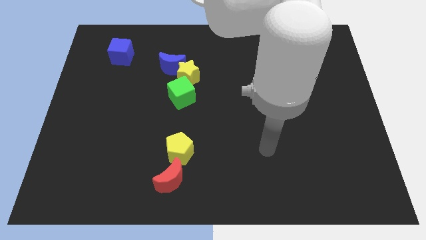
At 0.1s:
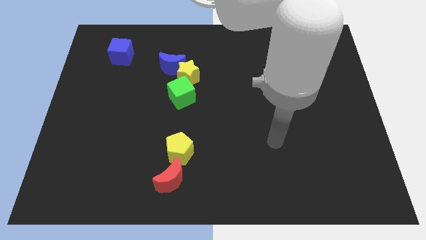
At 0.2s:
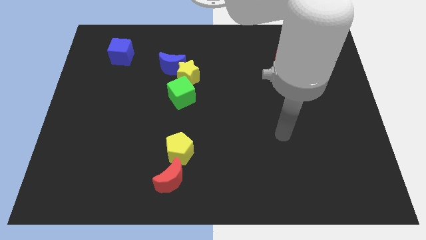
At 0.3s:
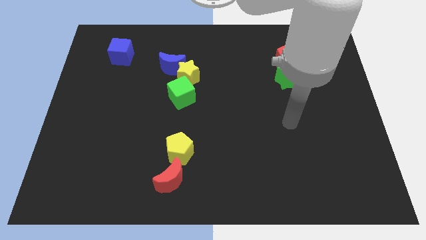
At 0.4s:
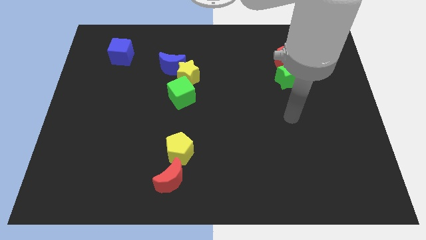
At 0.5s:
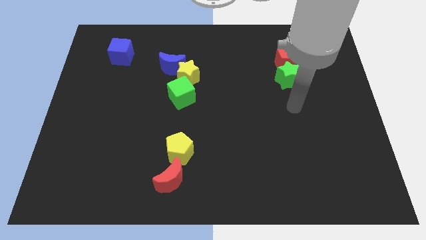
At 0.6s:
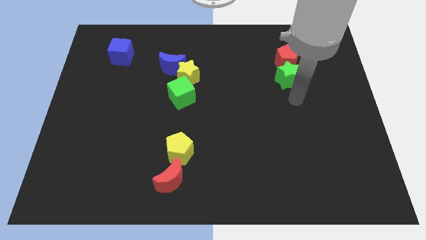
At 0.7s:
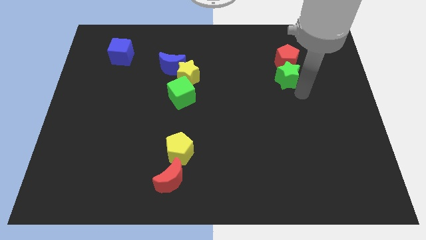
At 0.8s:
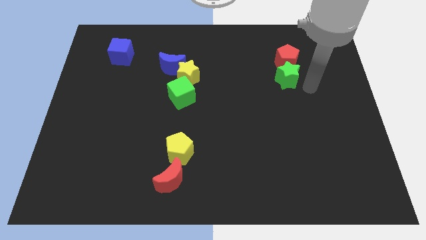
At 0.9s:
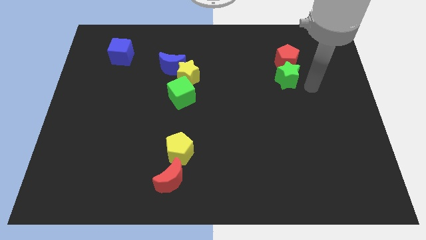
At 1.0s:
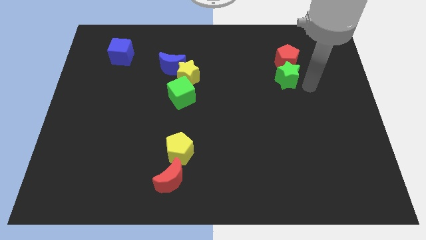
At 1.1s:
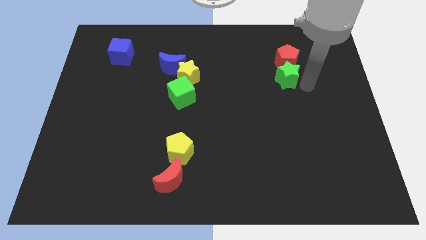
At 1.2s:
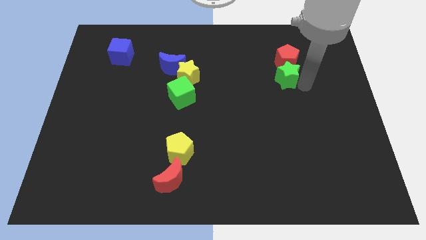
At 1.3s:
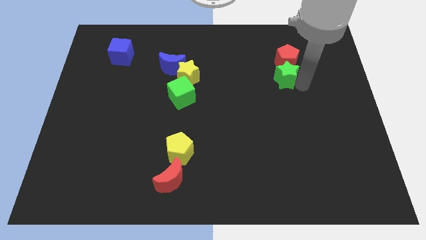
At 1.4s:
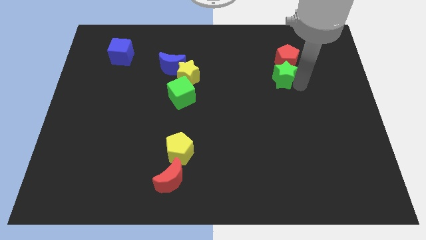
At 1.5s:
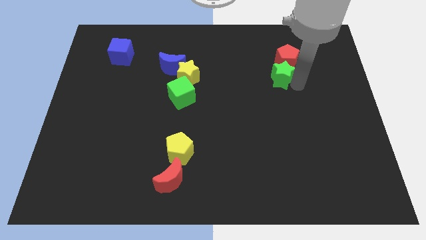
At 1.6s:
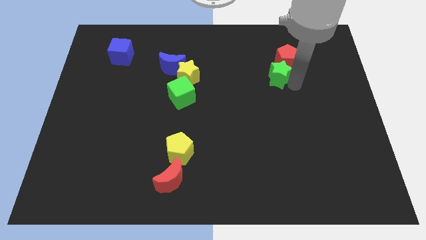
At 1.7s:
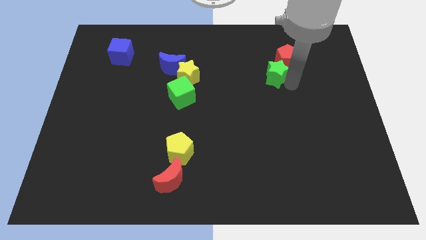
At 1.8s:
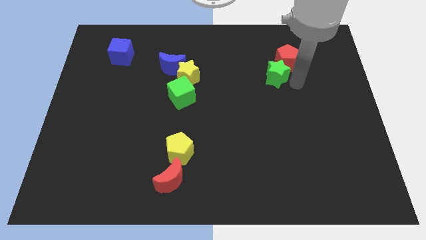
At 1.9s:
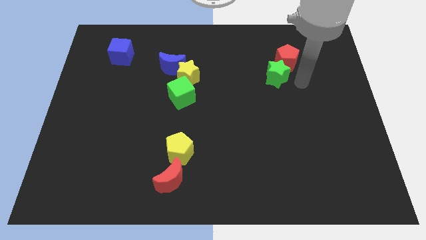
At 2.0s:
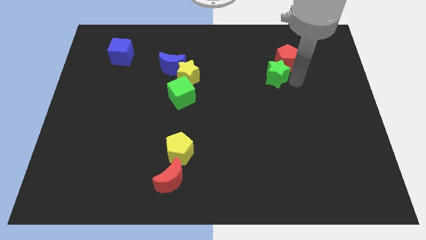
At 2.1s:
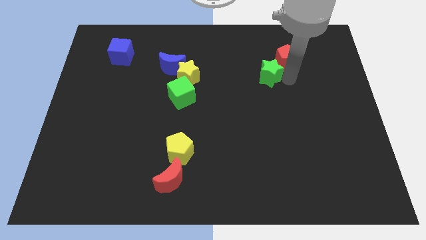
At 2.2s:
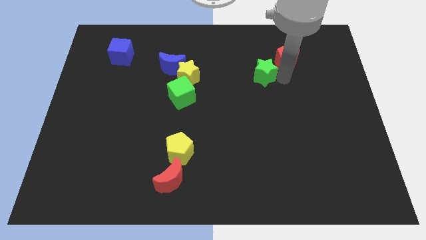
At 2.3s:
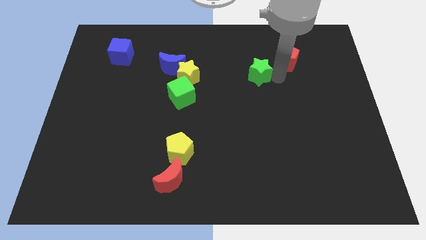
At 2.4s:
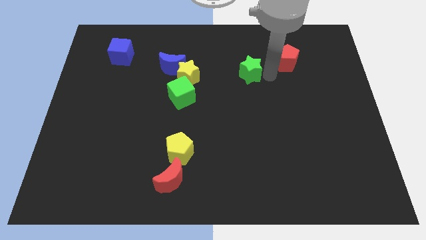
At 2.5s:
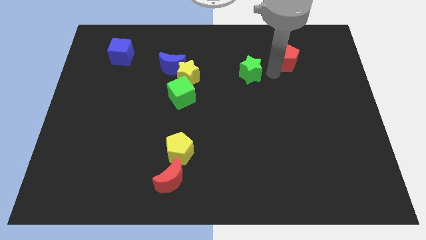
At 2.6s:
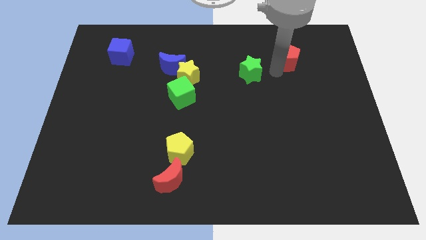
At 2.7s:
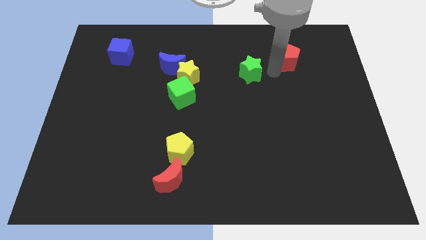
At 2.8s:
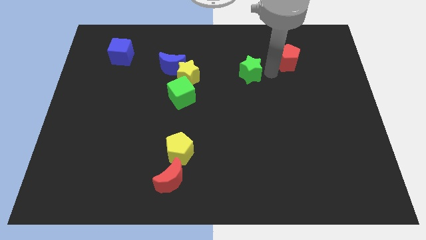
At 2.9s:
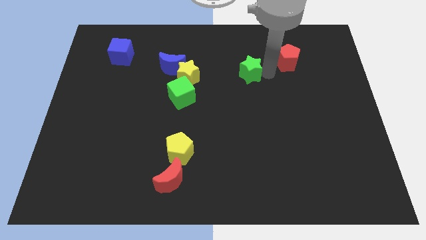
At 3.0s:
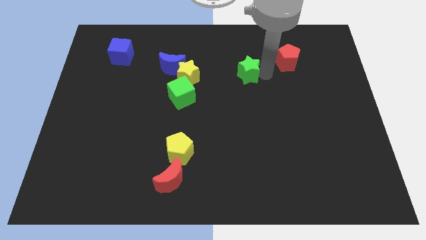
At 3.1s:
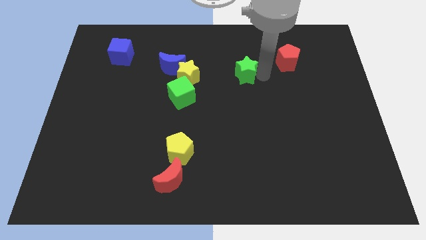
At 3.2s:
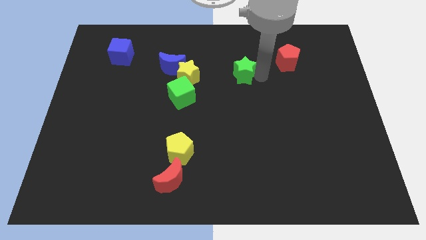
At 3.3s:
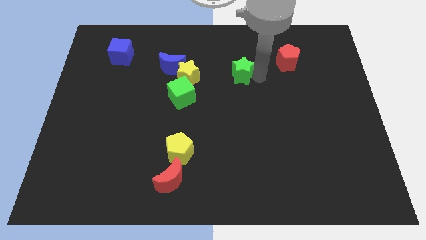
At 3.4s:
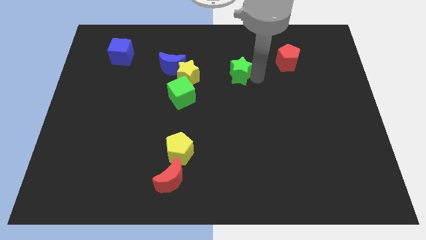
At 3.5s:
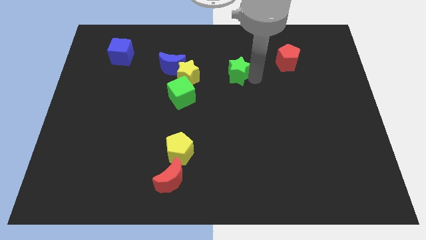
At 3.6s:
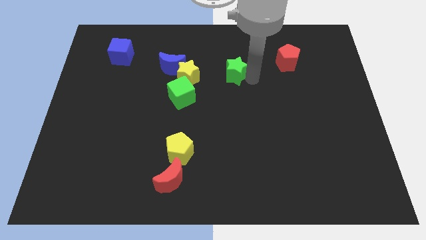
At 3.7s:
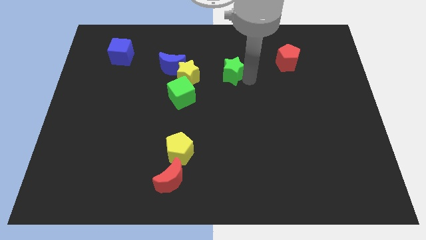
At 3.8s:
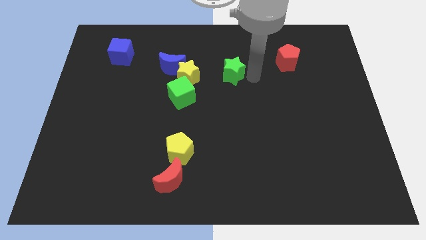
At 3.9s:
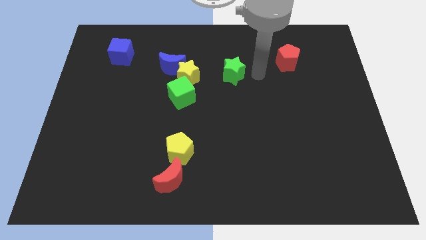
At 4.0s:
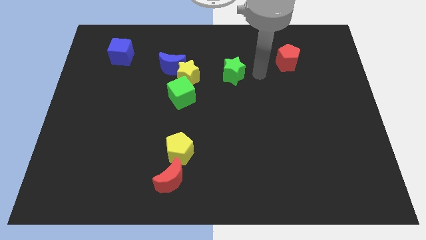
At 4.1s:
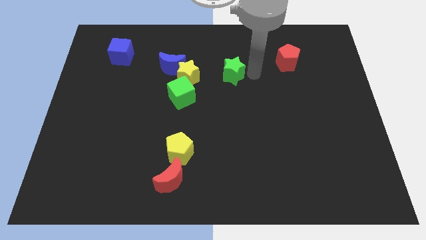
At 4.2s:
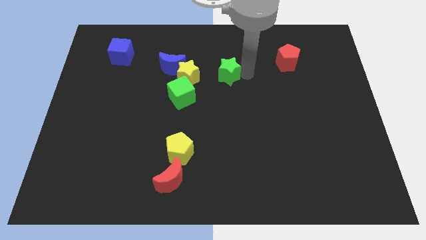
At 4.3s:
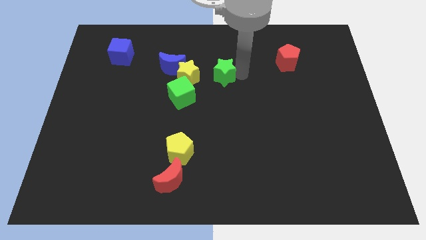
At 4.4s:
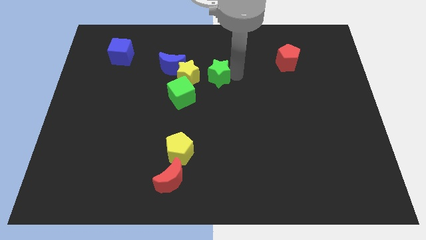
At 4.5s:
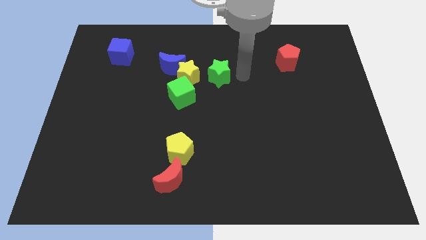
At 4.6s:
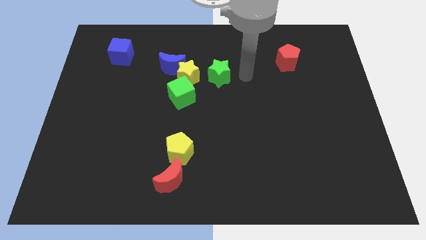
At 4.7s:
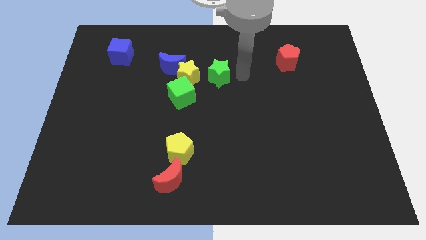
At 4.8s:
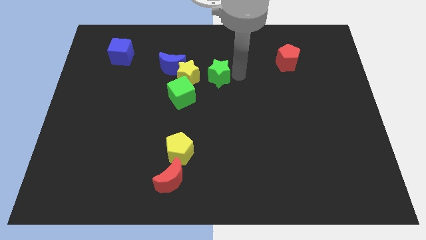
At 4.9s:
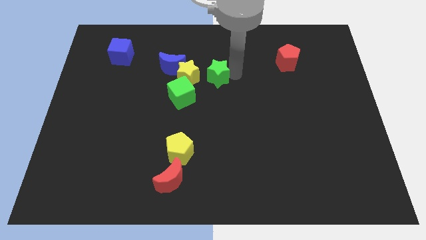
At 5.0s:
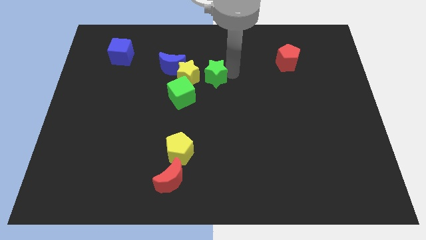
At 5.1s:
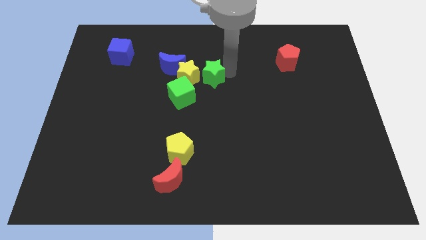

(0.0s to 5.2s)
slide the green star to the yellow star

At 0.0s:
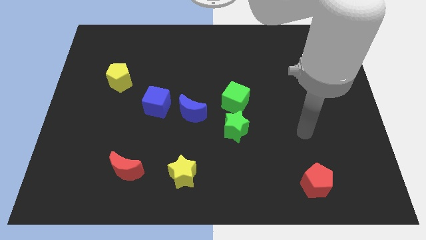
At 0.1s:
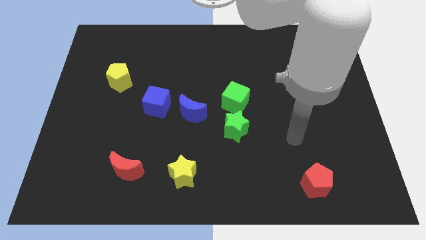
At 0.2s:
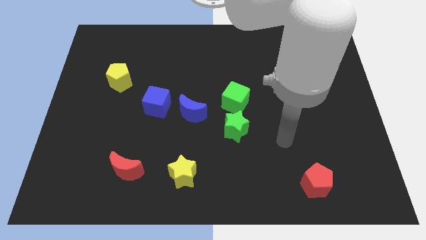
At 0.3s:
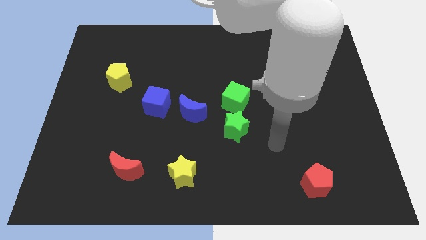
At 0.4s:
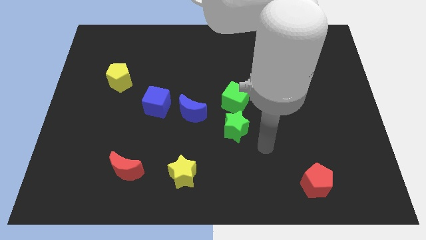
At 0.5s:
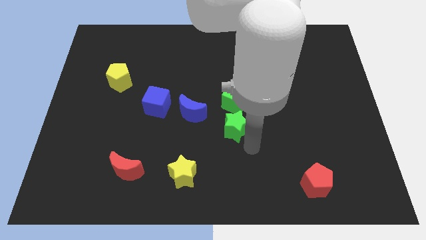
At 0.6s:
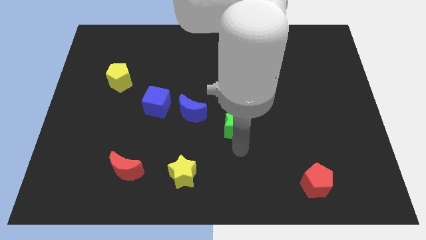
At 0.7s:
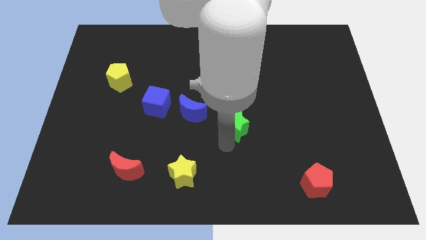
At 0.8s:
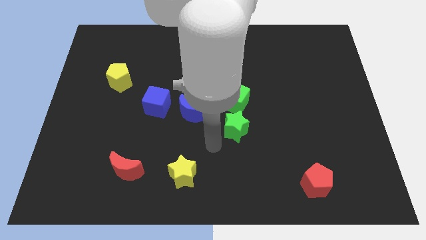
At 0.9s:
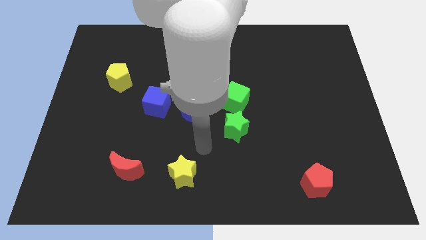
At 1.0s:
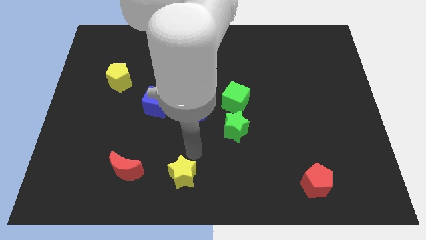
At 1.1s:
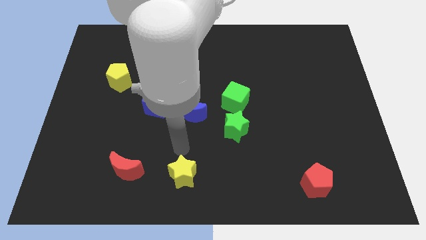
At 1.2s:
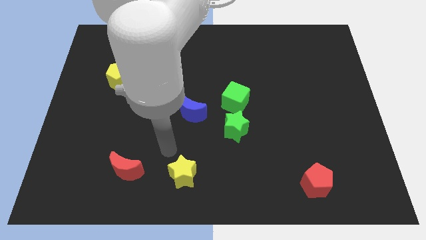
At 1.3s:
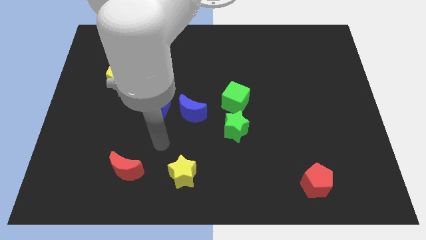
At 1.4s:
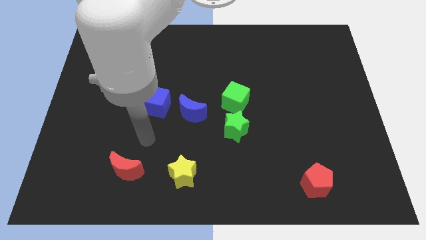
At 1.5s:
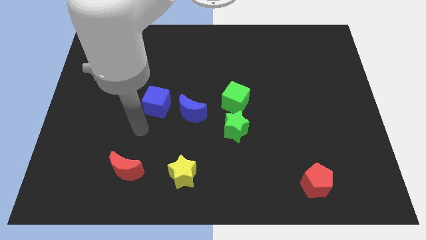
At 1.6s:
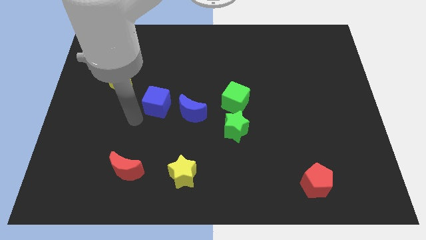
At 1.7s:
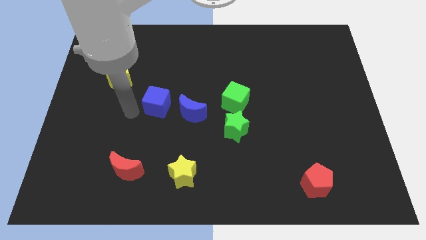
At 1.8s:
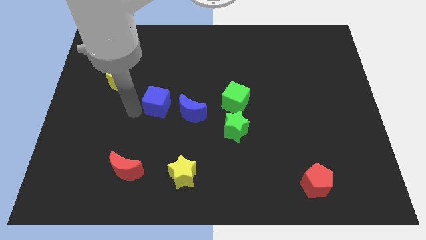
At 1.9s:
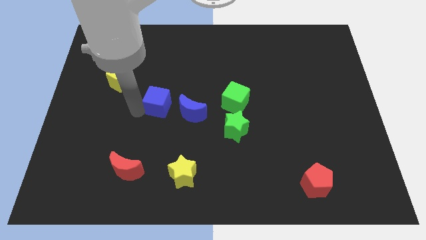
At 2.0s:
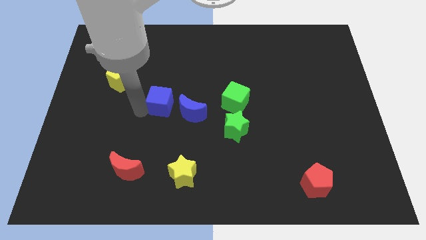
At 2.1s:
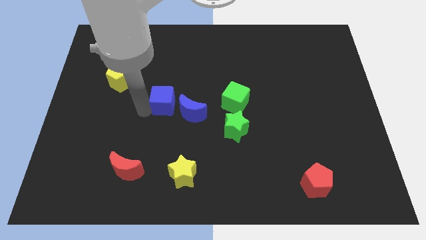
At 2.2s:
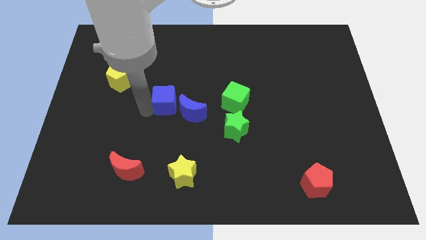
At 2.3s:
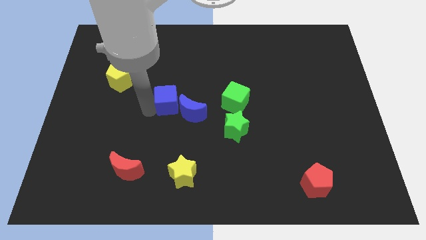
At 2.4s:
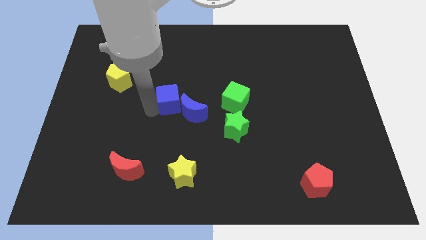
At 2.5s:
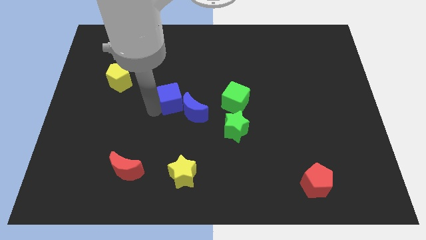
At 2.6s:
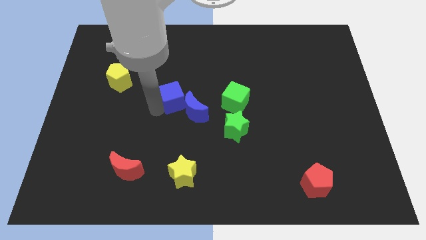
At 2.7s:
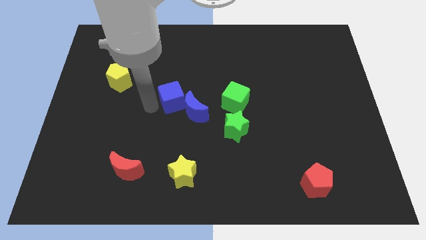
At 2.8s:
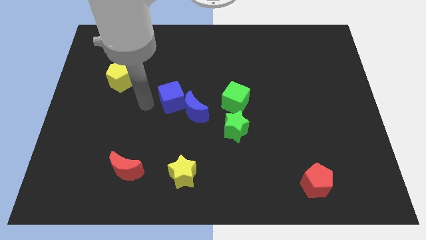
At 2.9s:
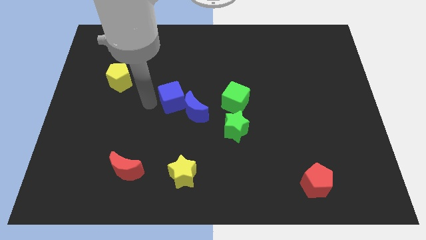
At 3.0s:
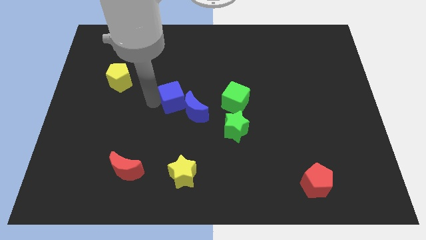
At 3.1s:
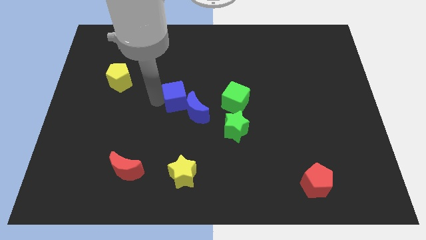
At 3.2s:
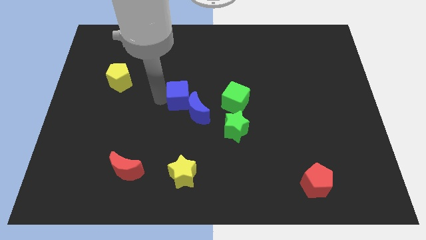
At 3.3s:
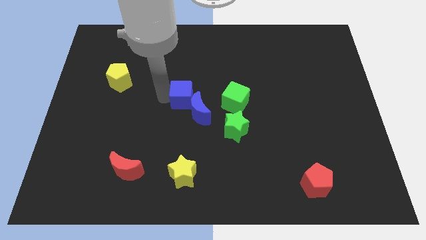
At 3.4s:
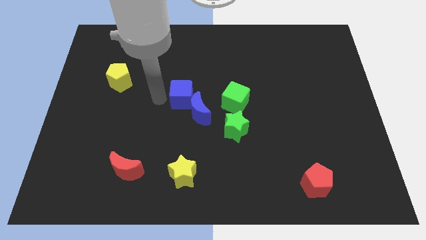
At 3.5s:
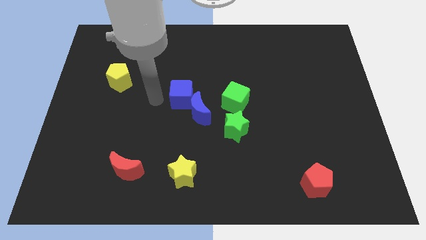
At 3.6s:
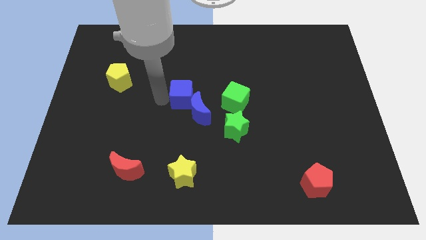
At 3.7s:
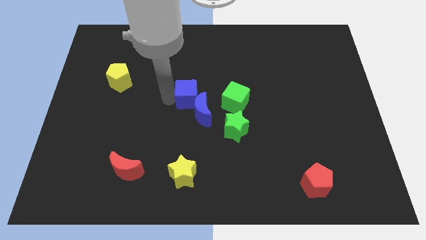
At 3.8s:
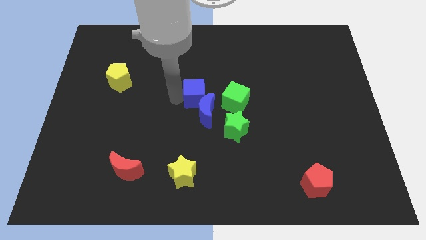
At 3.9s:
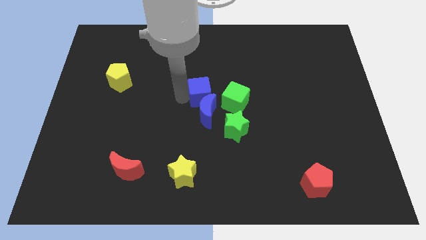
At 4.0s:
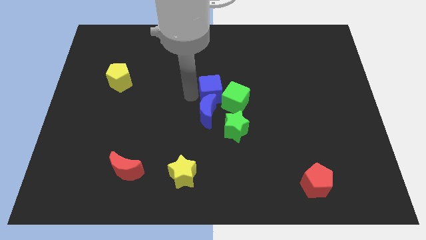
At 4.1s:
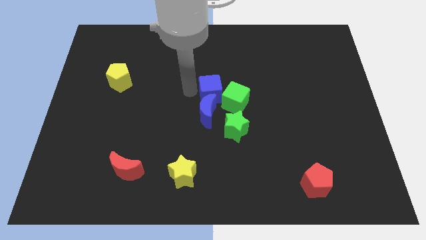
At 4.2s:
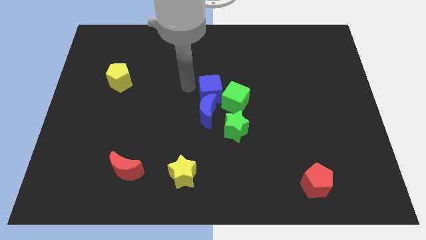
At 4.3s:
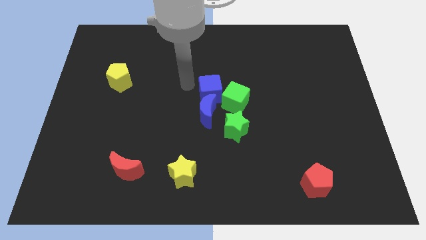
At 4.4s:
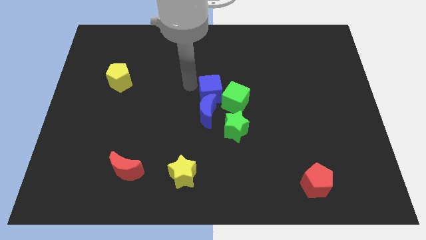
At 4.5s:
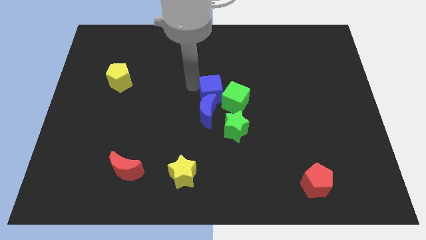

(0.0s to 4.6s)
push the blue cube close to the green cube
